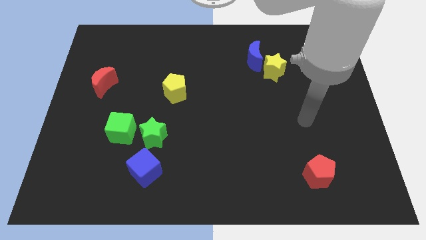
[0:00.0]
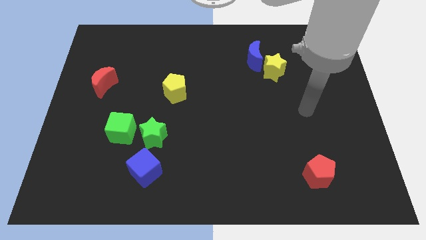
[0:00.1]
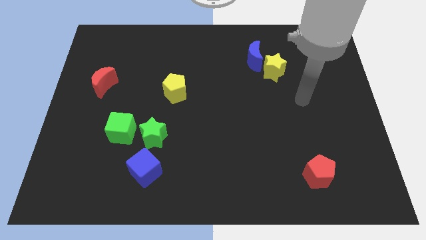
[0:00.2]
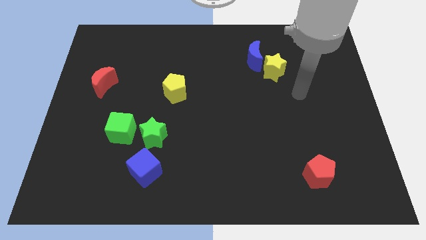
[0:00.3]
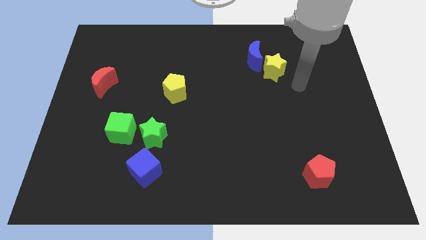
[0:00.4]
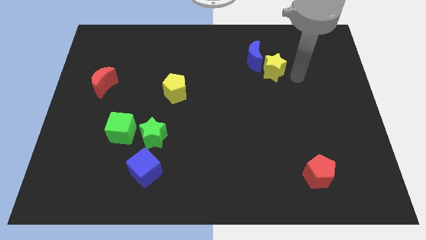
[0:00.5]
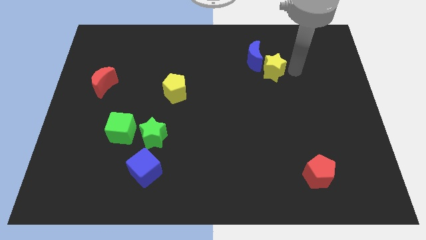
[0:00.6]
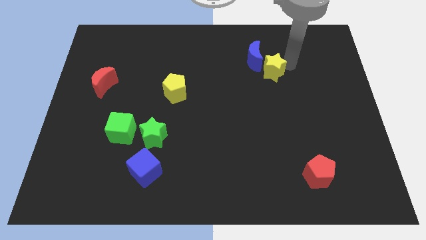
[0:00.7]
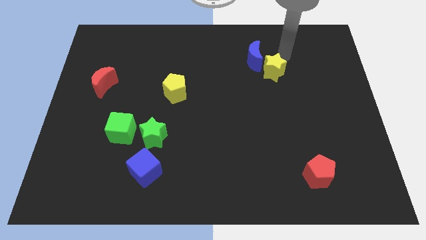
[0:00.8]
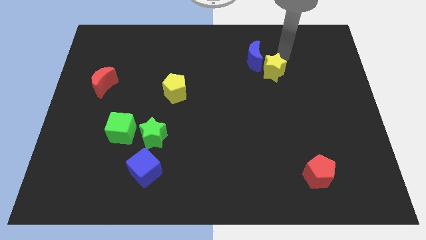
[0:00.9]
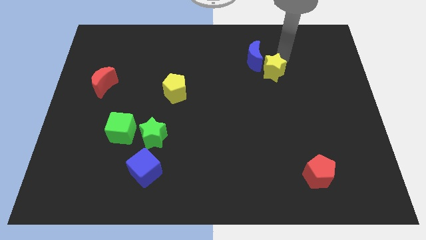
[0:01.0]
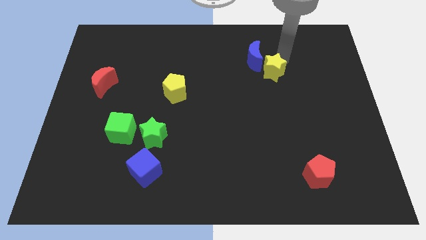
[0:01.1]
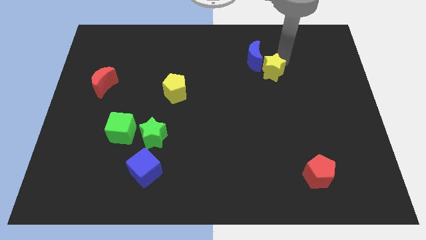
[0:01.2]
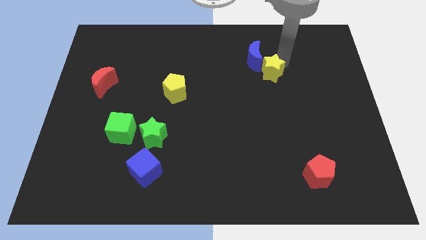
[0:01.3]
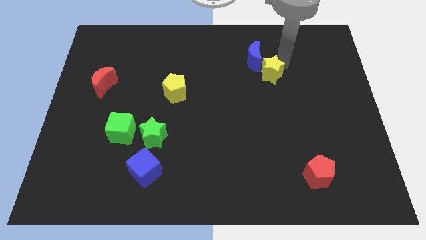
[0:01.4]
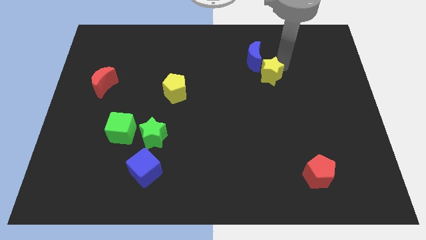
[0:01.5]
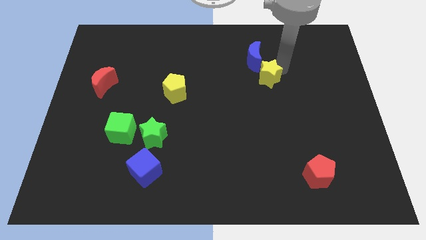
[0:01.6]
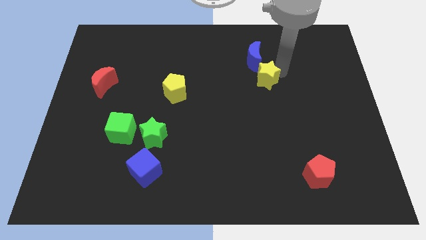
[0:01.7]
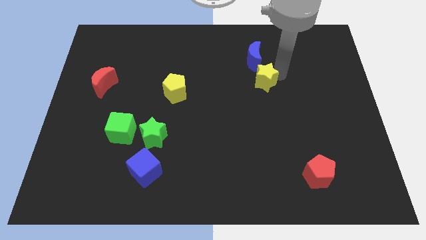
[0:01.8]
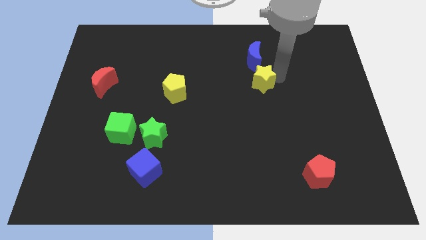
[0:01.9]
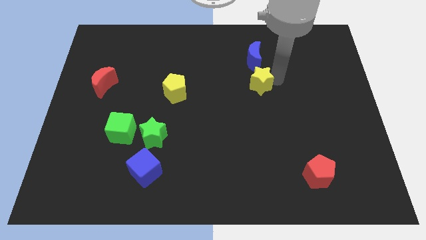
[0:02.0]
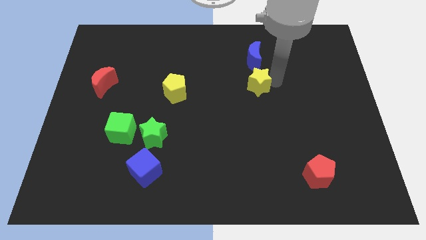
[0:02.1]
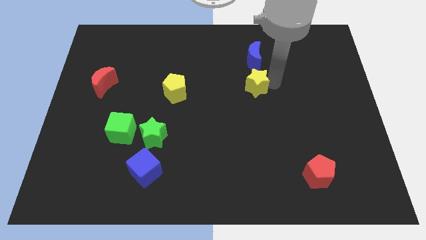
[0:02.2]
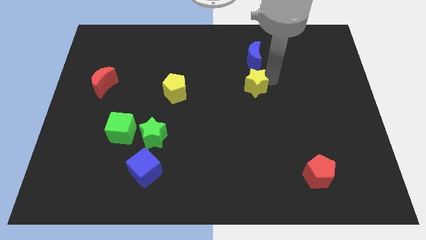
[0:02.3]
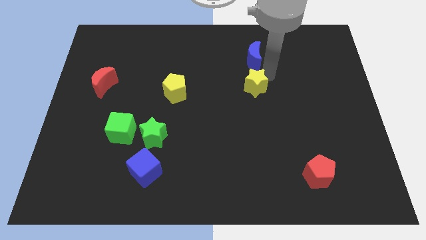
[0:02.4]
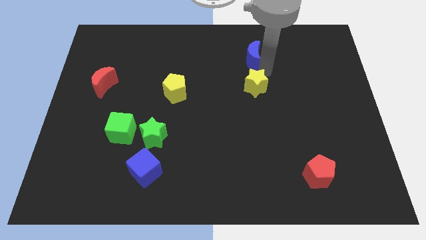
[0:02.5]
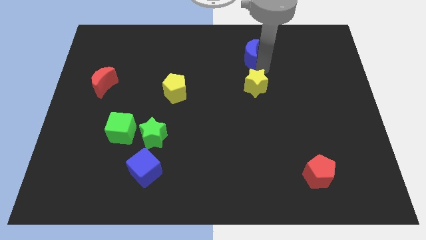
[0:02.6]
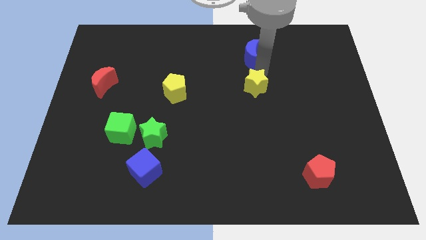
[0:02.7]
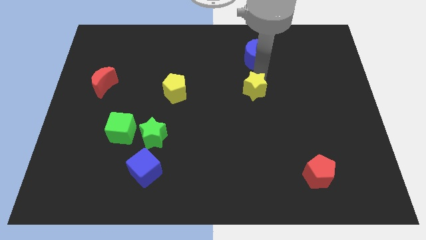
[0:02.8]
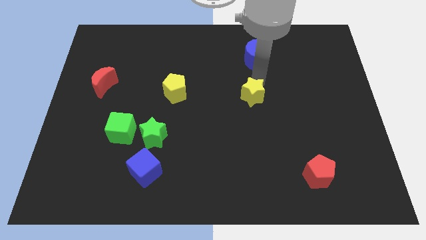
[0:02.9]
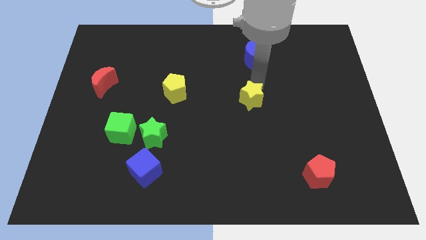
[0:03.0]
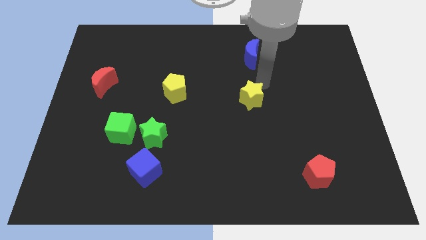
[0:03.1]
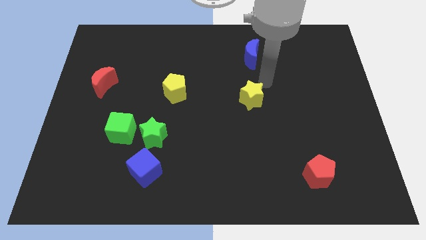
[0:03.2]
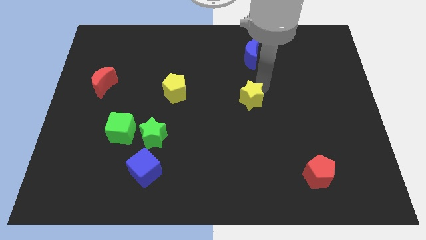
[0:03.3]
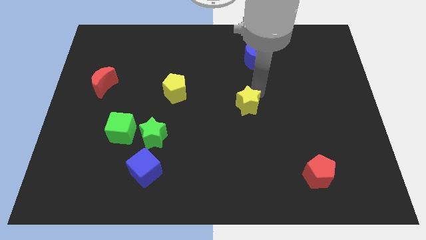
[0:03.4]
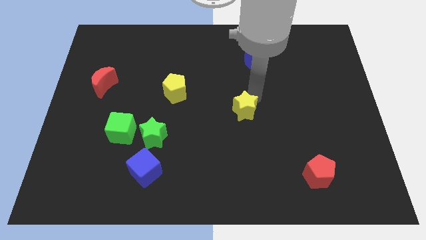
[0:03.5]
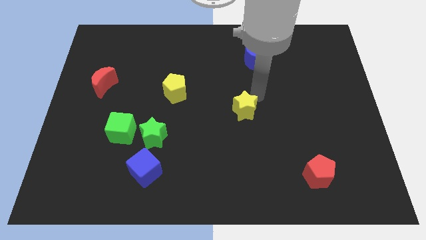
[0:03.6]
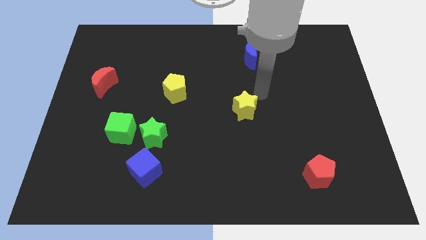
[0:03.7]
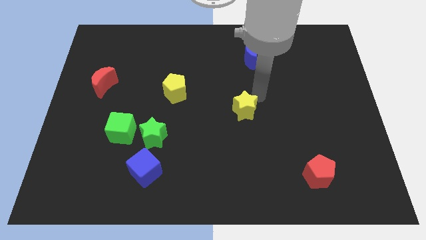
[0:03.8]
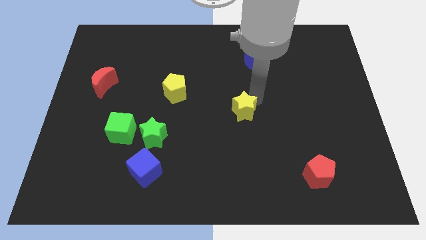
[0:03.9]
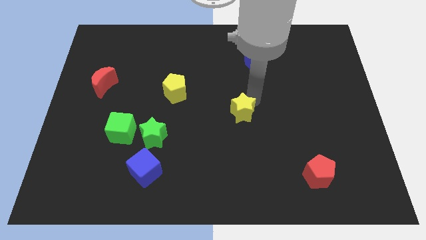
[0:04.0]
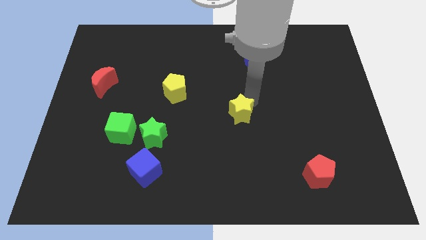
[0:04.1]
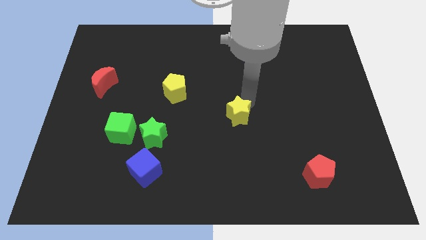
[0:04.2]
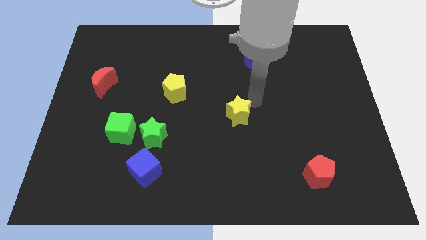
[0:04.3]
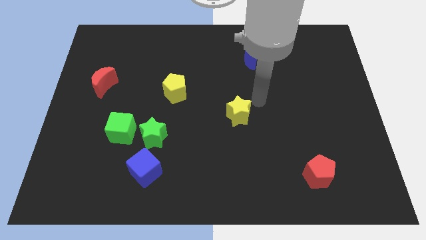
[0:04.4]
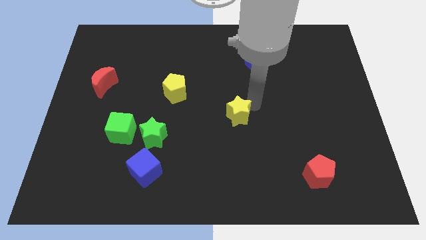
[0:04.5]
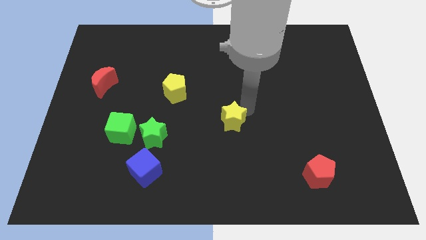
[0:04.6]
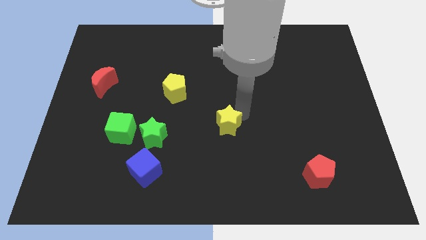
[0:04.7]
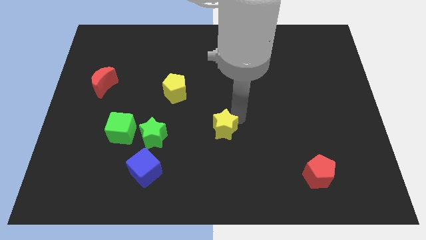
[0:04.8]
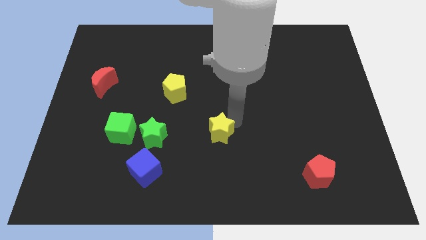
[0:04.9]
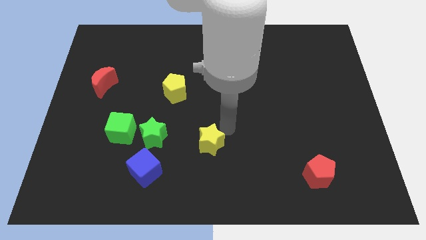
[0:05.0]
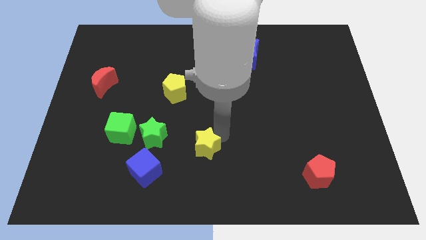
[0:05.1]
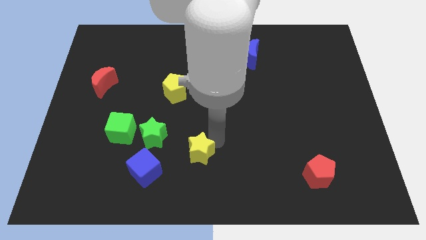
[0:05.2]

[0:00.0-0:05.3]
slide the yellow star diagonally down and to the right of the green star

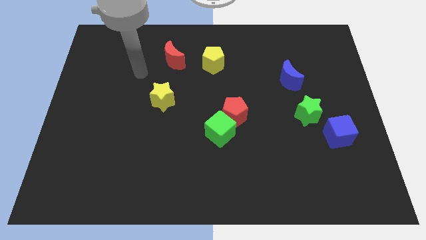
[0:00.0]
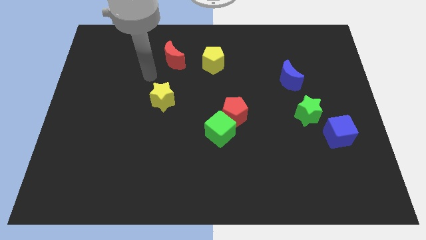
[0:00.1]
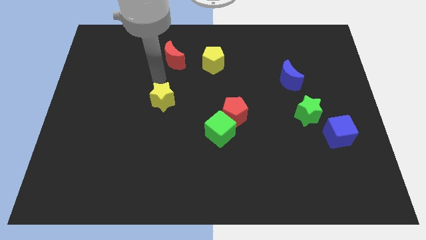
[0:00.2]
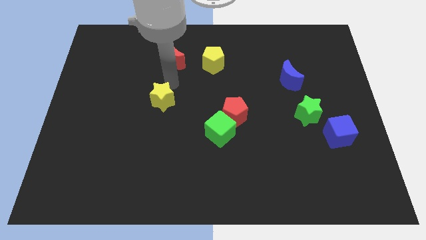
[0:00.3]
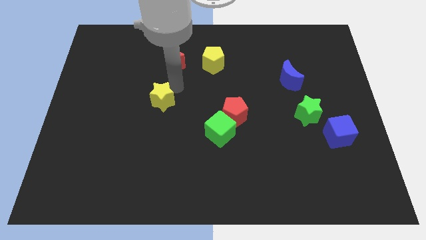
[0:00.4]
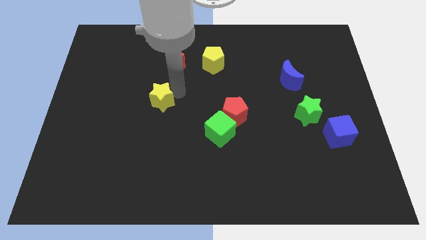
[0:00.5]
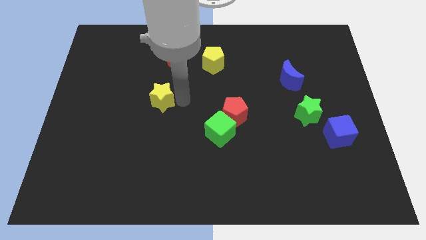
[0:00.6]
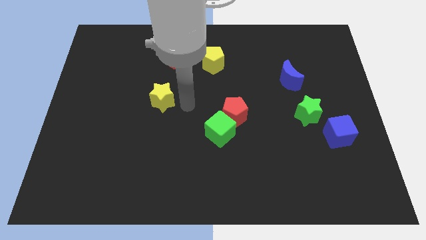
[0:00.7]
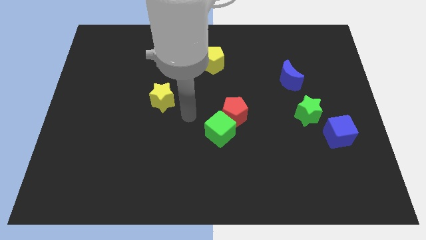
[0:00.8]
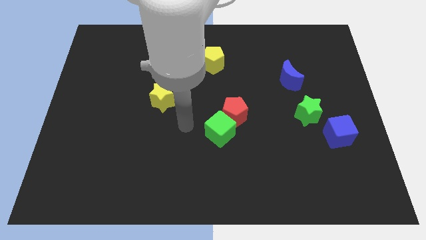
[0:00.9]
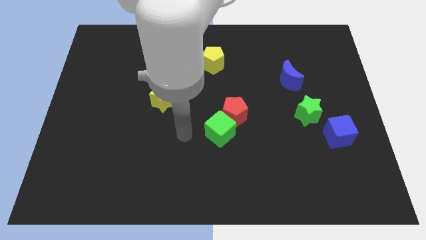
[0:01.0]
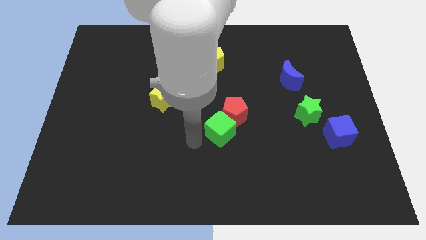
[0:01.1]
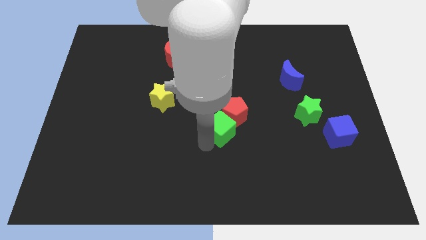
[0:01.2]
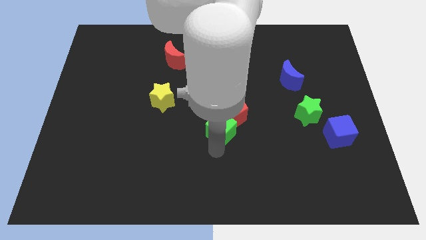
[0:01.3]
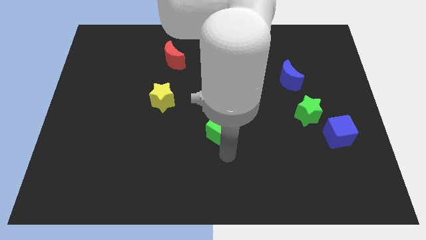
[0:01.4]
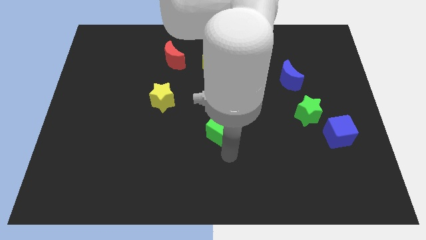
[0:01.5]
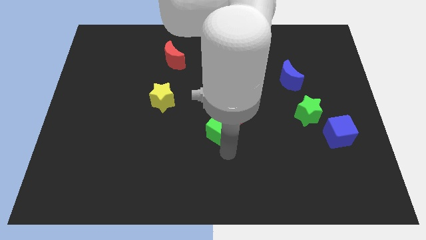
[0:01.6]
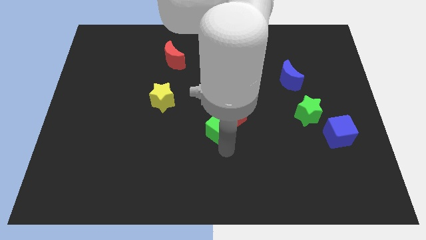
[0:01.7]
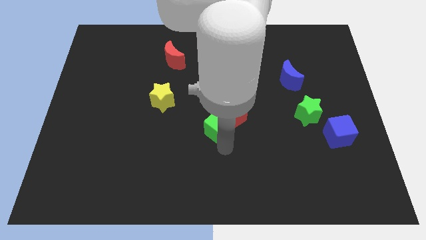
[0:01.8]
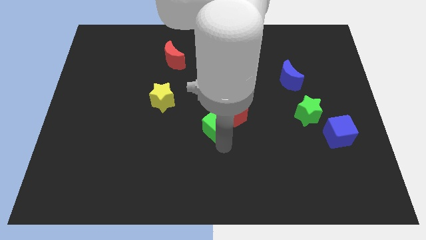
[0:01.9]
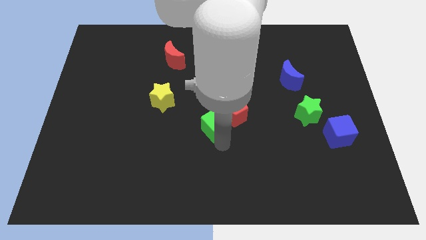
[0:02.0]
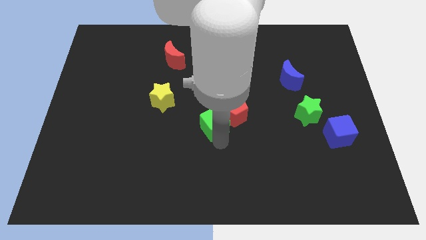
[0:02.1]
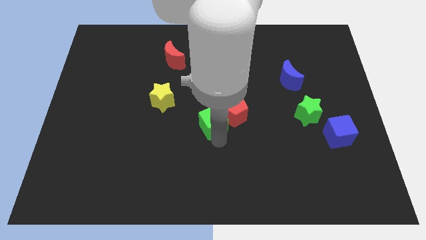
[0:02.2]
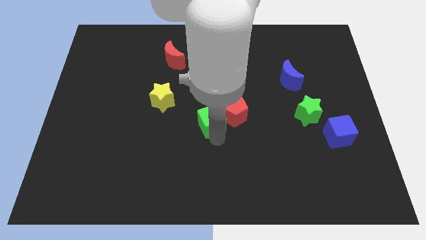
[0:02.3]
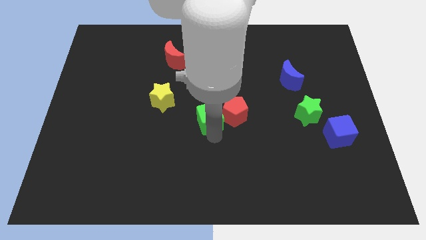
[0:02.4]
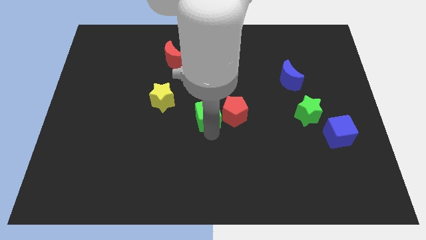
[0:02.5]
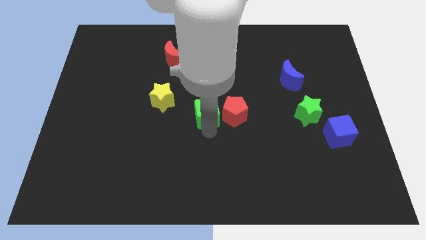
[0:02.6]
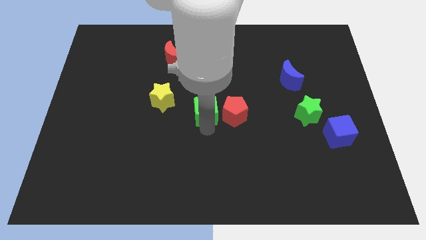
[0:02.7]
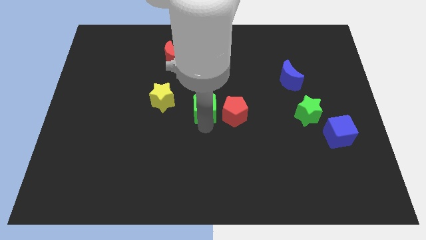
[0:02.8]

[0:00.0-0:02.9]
put the green cube below the yellow pentagon
